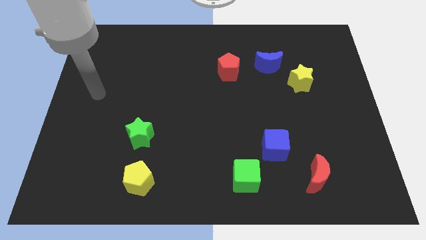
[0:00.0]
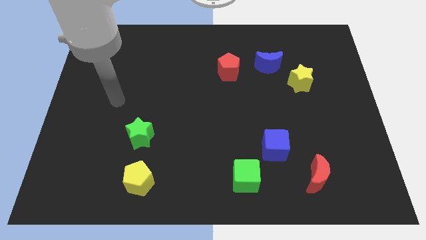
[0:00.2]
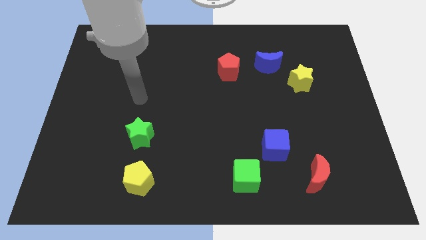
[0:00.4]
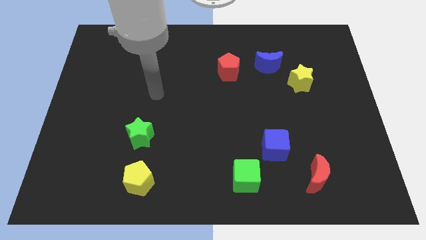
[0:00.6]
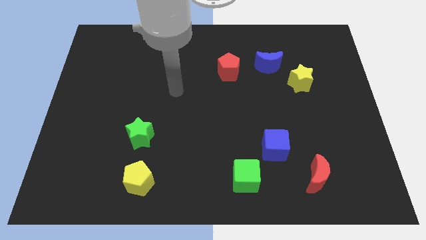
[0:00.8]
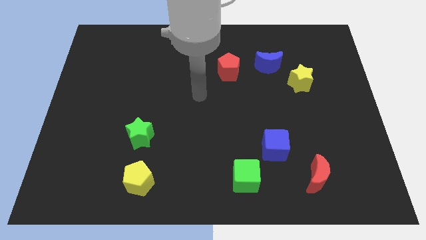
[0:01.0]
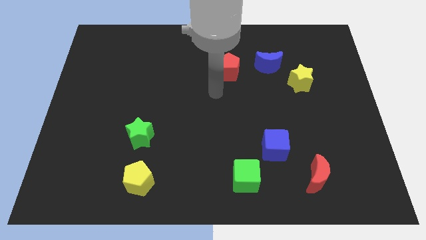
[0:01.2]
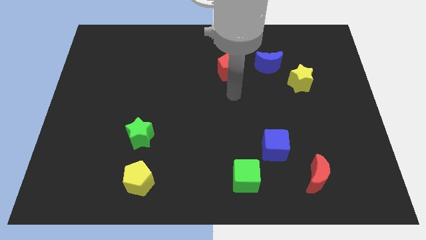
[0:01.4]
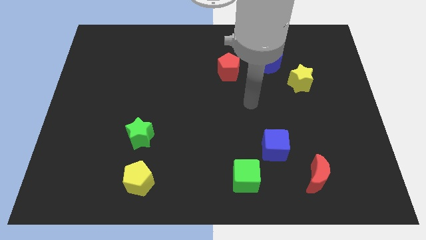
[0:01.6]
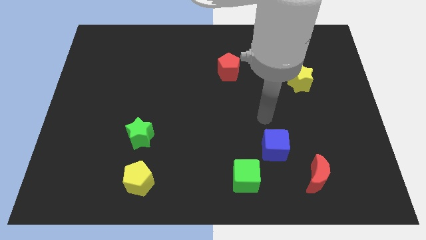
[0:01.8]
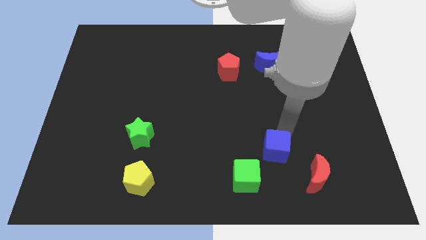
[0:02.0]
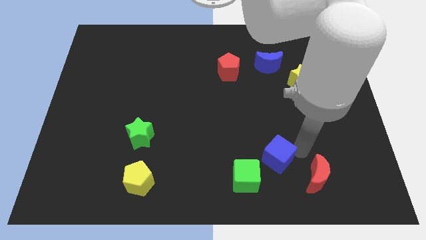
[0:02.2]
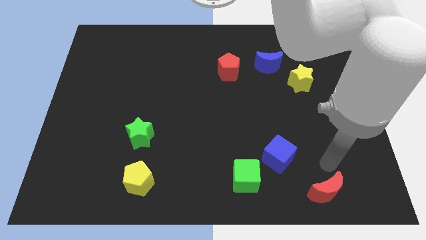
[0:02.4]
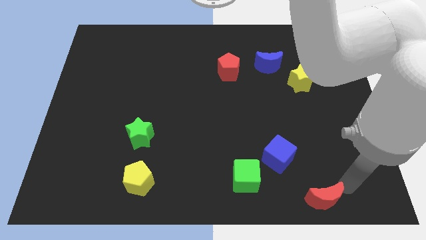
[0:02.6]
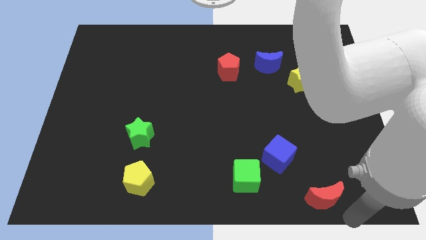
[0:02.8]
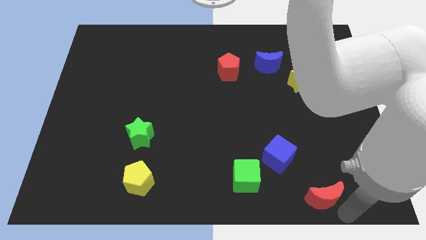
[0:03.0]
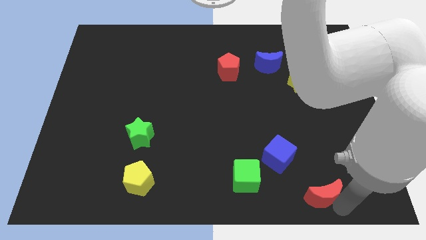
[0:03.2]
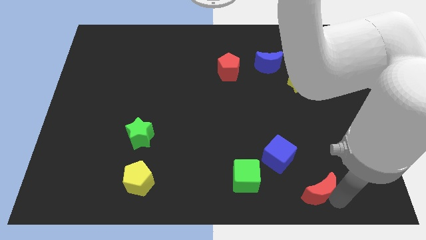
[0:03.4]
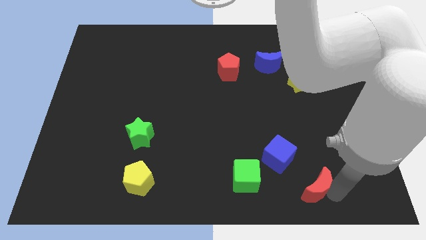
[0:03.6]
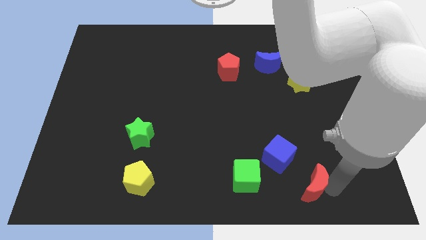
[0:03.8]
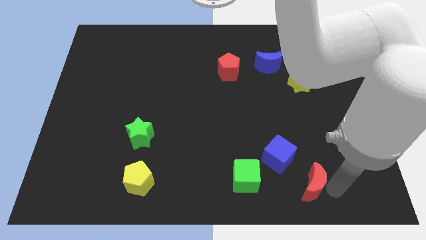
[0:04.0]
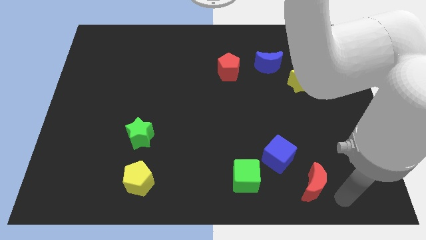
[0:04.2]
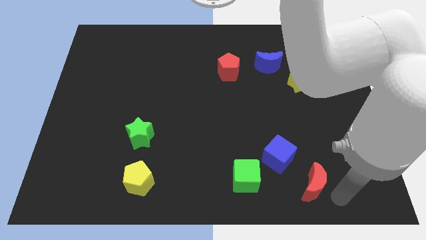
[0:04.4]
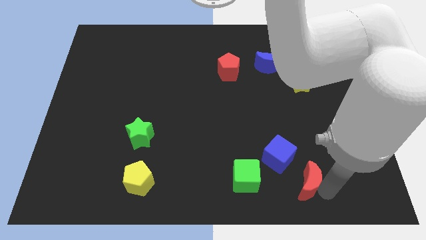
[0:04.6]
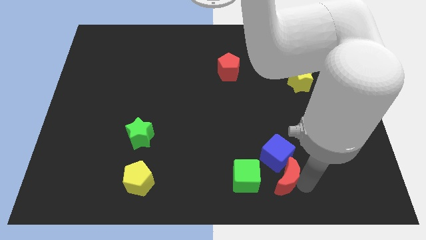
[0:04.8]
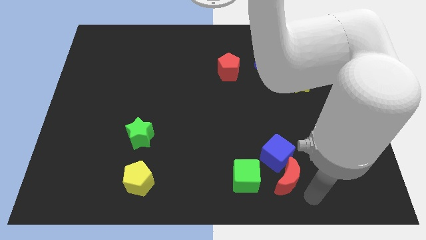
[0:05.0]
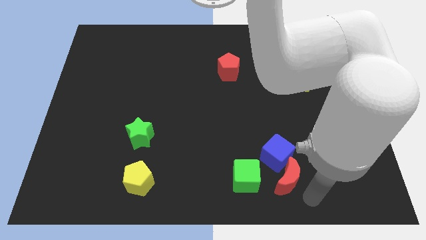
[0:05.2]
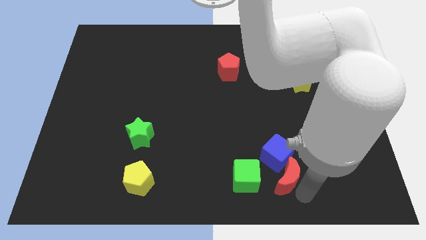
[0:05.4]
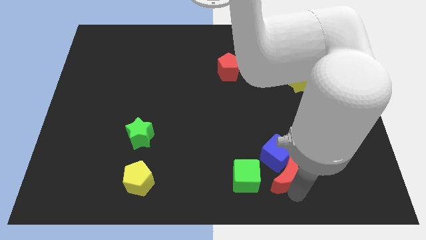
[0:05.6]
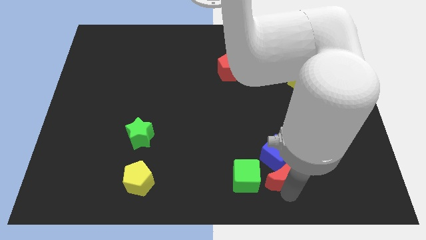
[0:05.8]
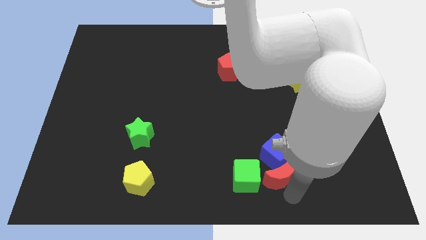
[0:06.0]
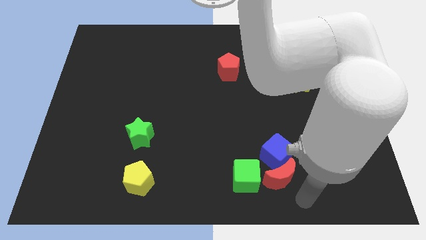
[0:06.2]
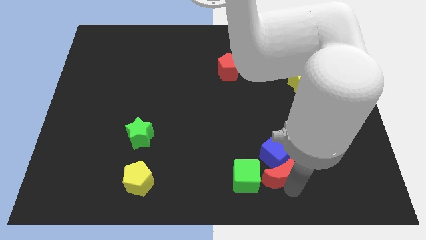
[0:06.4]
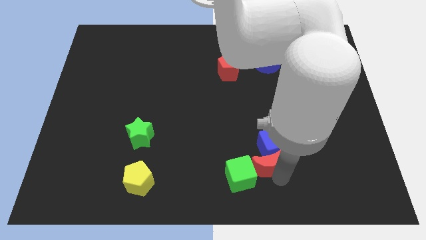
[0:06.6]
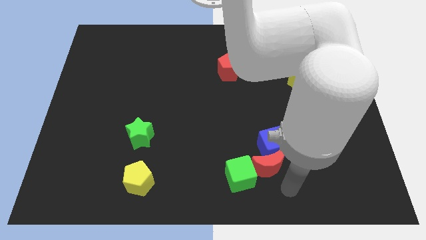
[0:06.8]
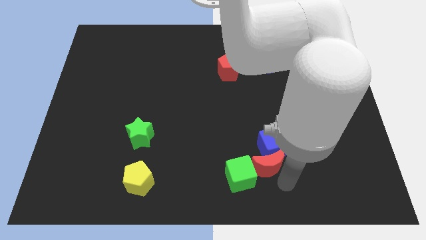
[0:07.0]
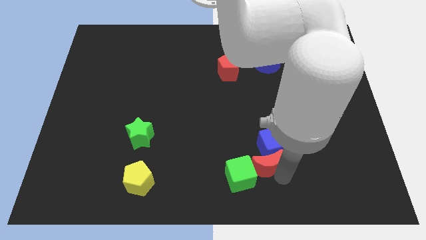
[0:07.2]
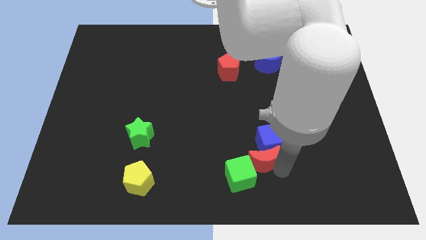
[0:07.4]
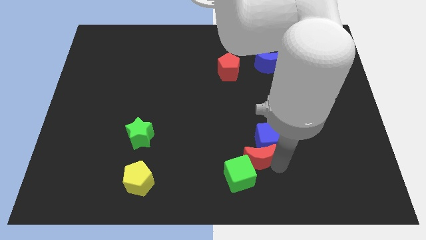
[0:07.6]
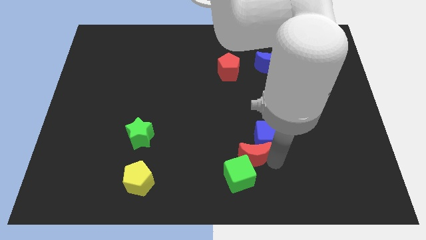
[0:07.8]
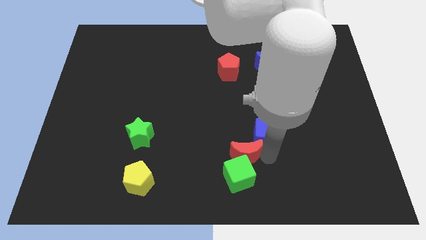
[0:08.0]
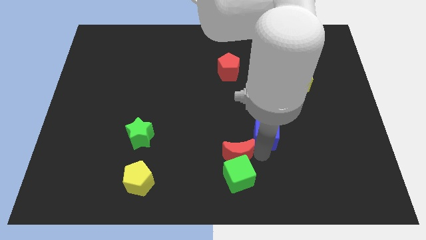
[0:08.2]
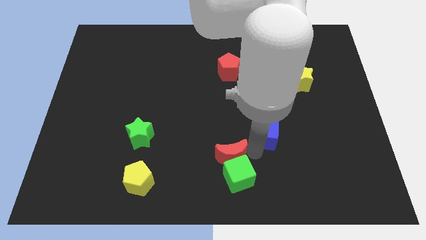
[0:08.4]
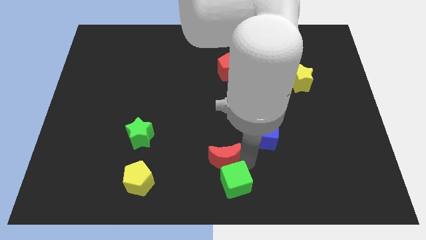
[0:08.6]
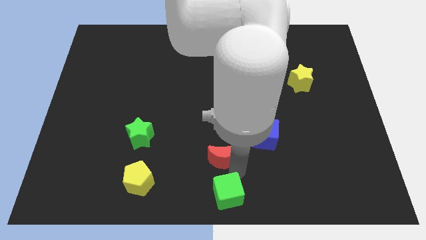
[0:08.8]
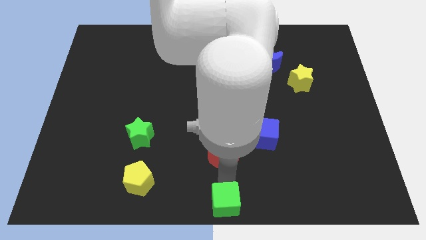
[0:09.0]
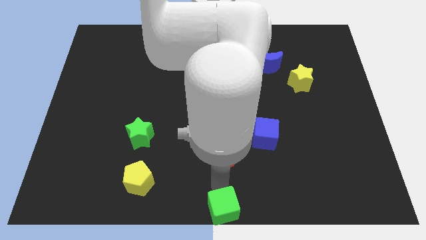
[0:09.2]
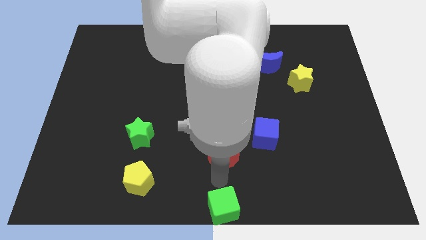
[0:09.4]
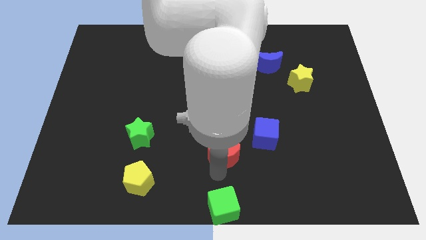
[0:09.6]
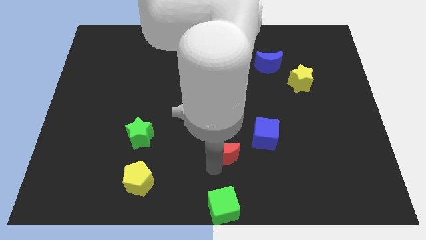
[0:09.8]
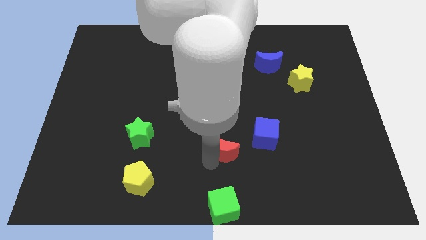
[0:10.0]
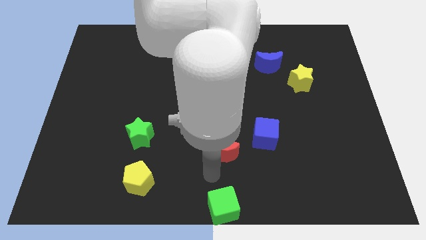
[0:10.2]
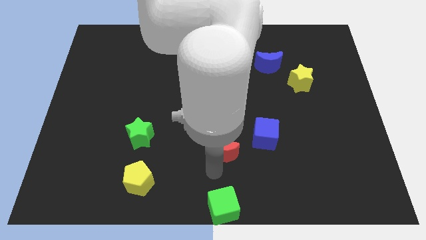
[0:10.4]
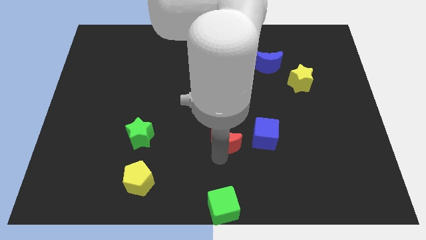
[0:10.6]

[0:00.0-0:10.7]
put the red moon to the center

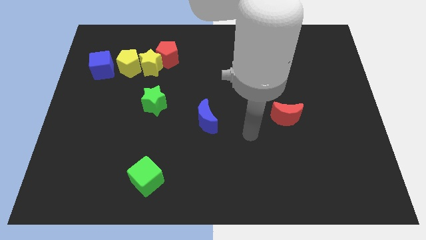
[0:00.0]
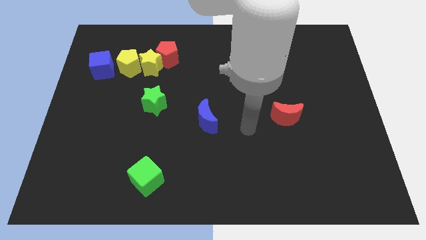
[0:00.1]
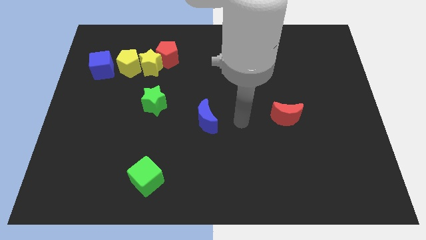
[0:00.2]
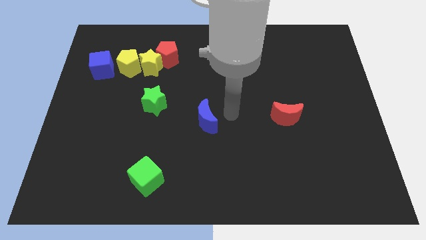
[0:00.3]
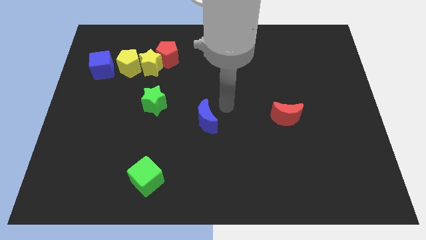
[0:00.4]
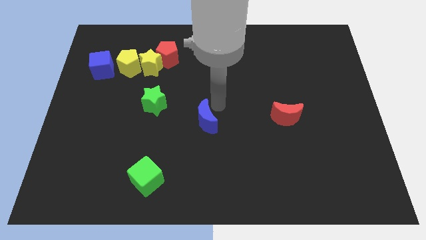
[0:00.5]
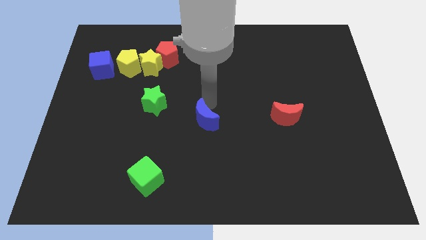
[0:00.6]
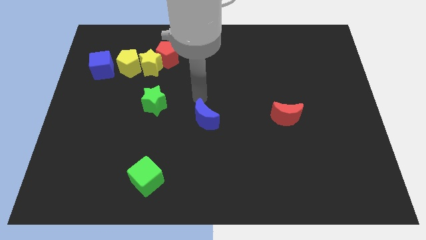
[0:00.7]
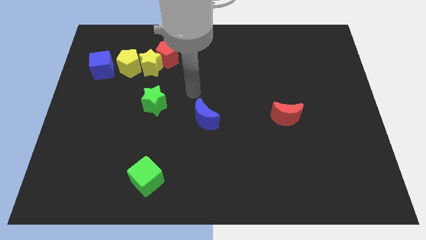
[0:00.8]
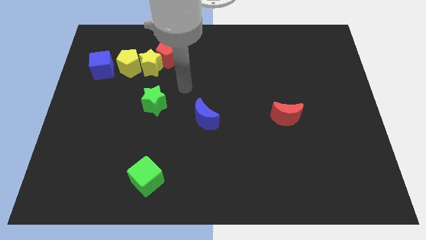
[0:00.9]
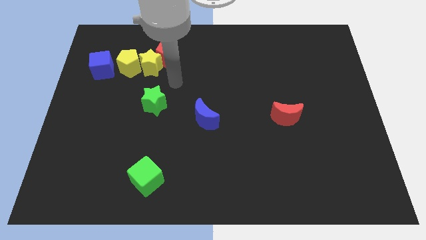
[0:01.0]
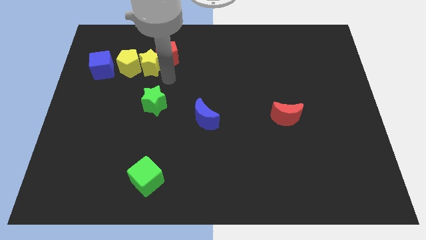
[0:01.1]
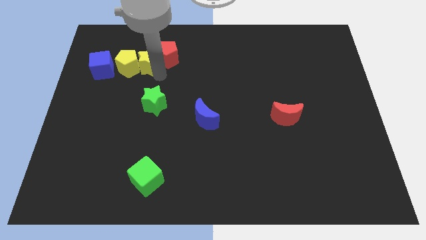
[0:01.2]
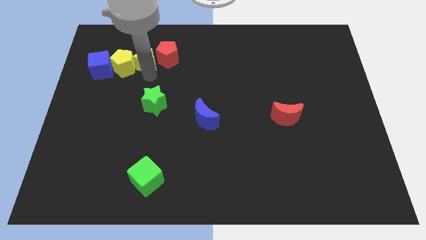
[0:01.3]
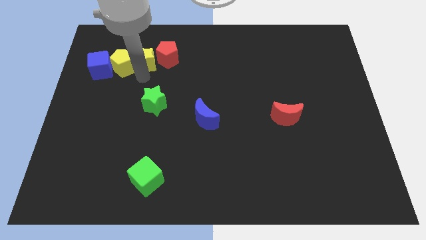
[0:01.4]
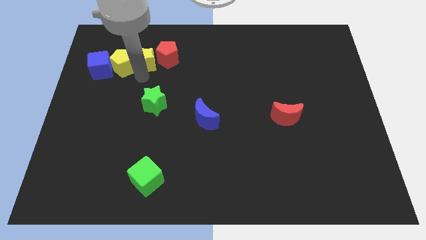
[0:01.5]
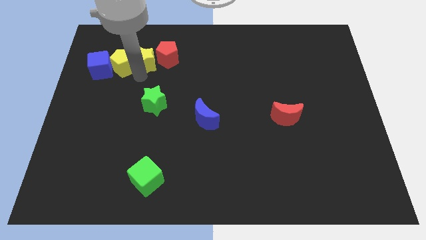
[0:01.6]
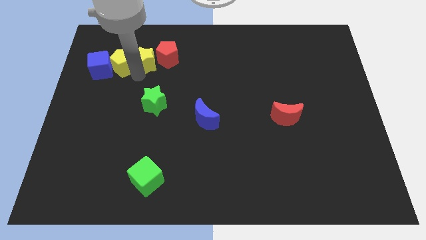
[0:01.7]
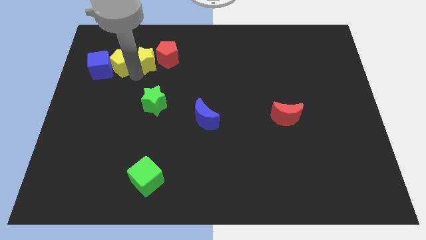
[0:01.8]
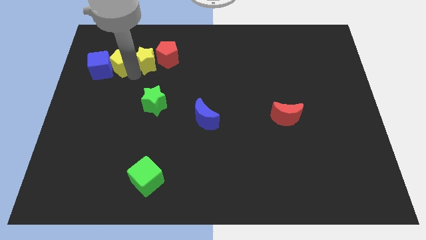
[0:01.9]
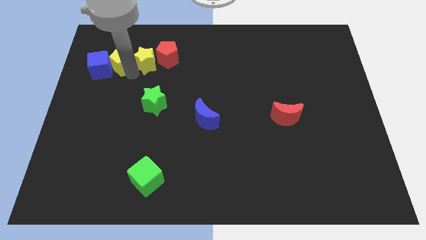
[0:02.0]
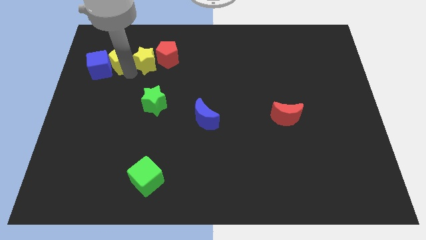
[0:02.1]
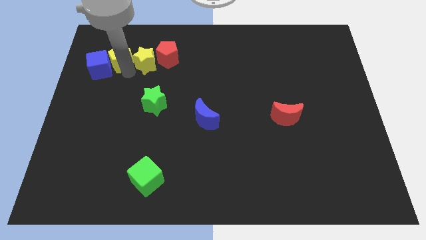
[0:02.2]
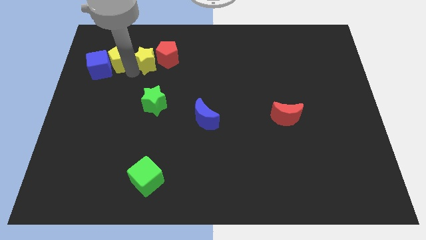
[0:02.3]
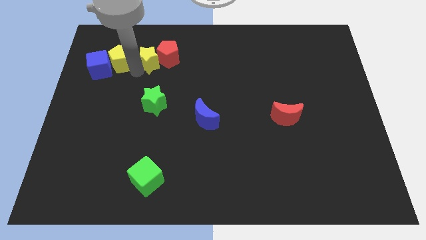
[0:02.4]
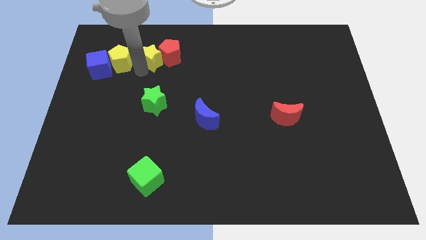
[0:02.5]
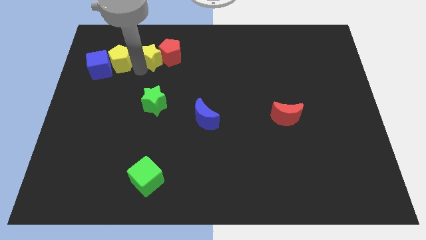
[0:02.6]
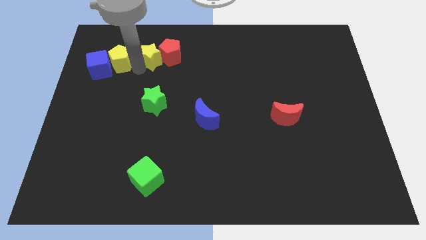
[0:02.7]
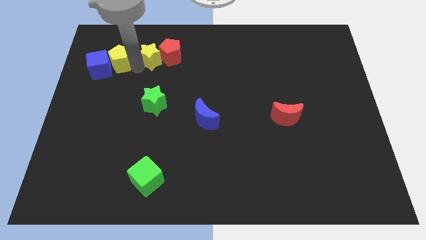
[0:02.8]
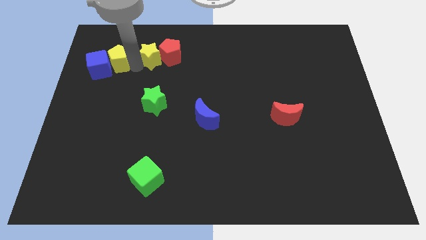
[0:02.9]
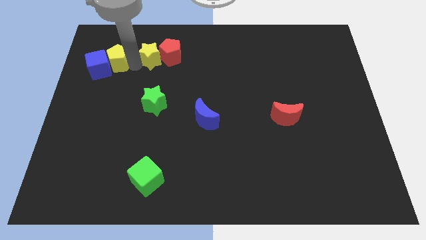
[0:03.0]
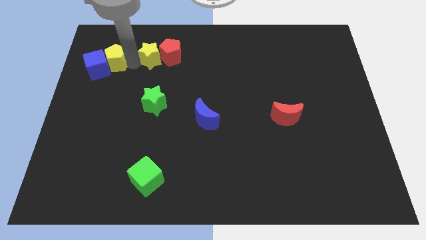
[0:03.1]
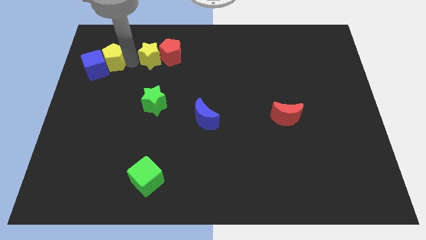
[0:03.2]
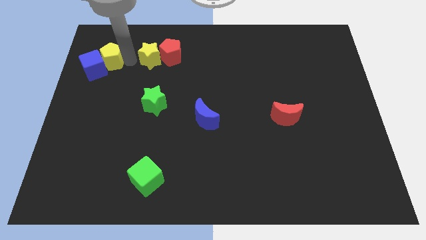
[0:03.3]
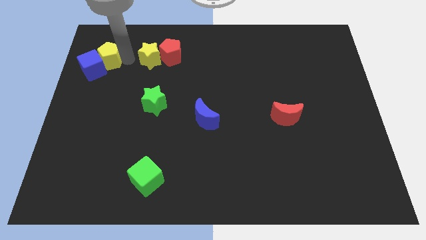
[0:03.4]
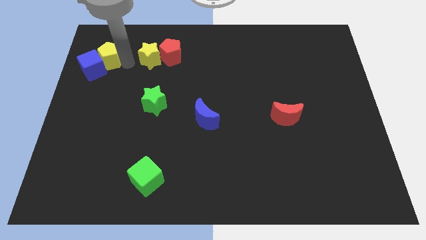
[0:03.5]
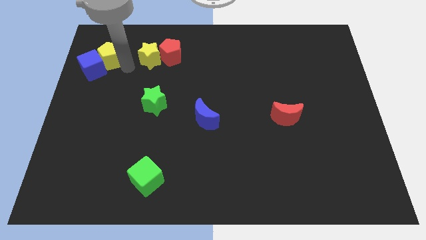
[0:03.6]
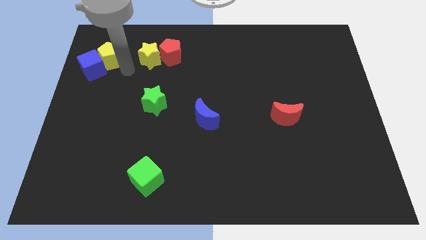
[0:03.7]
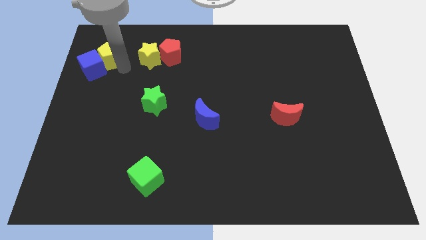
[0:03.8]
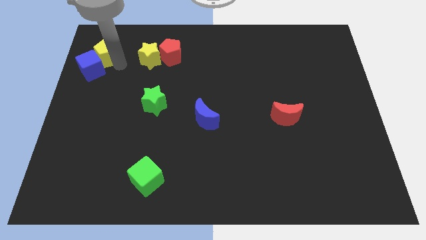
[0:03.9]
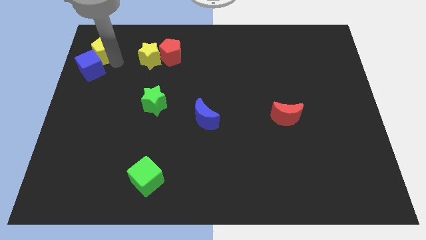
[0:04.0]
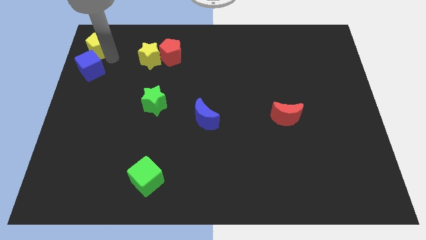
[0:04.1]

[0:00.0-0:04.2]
put the yellow pentagon to the upper left corner
